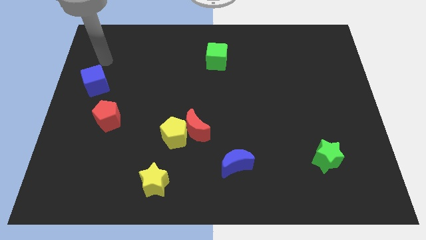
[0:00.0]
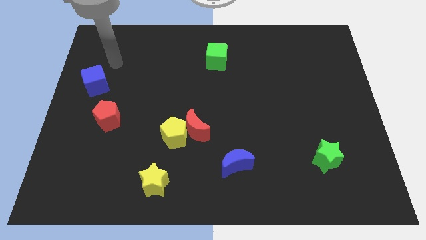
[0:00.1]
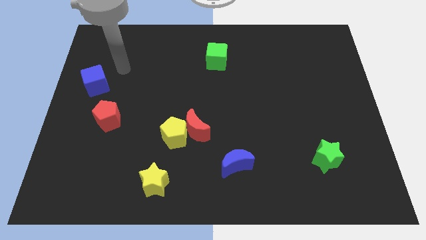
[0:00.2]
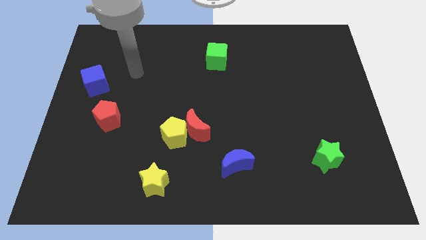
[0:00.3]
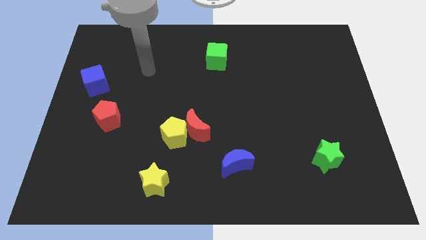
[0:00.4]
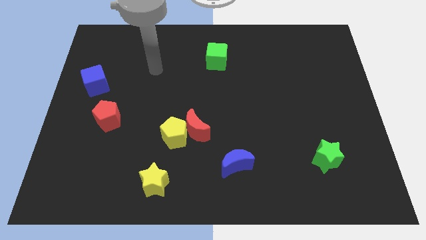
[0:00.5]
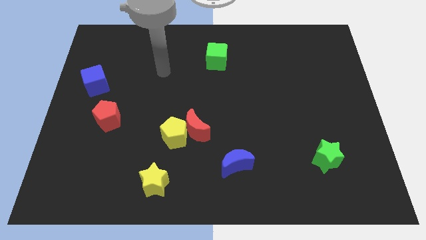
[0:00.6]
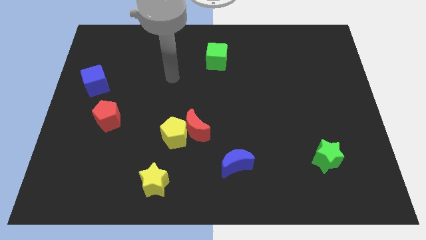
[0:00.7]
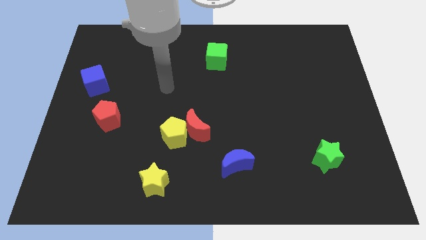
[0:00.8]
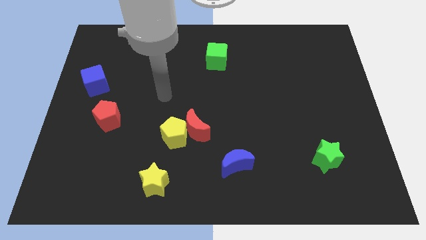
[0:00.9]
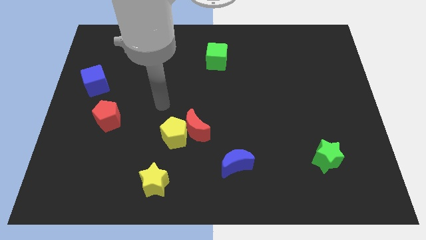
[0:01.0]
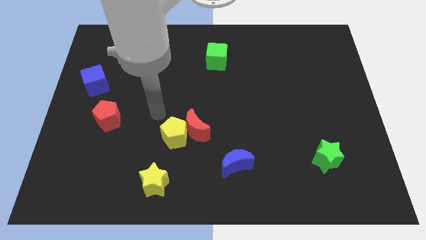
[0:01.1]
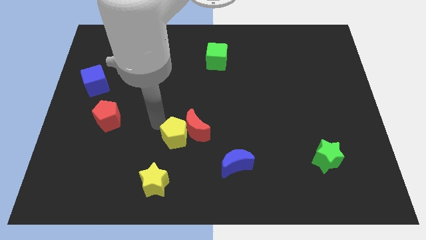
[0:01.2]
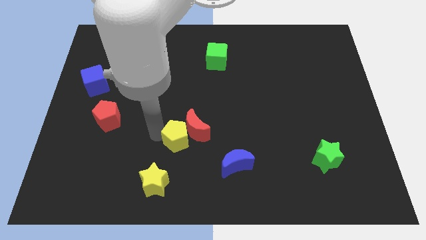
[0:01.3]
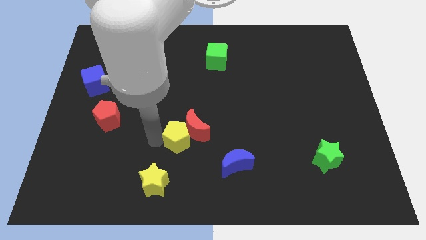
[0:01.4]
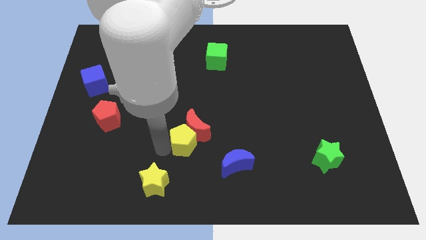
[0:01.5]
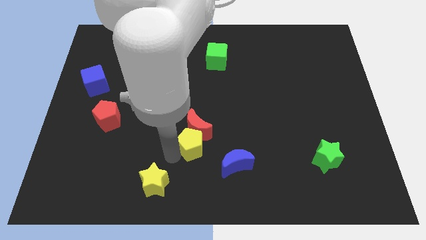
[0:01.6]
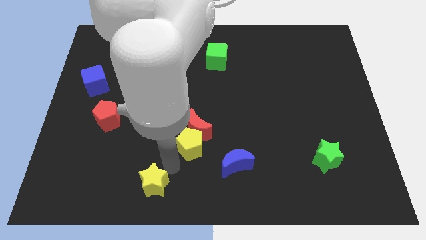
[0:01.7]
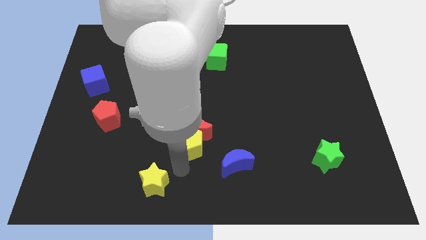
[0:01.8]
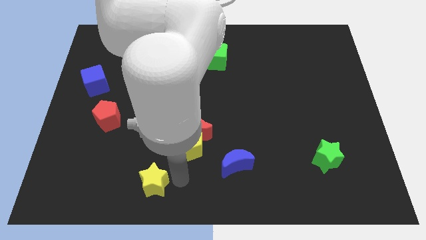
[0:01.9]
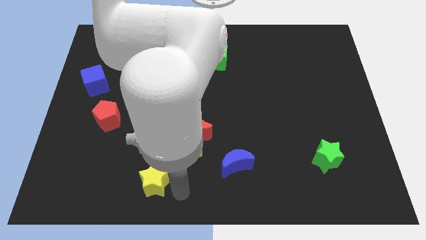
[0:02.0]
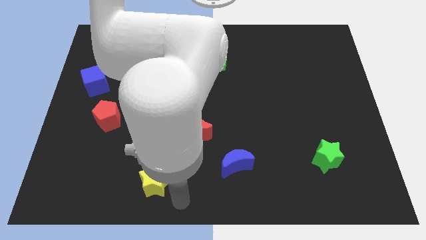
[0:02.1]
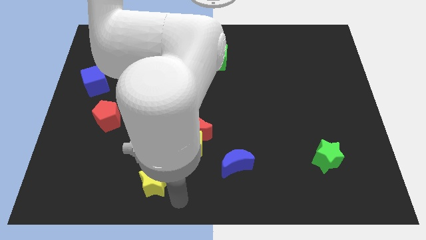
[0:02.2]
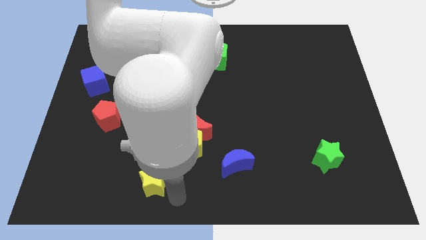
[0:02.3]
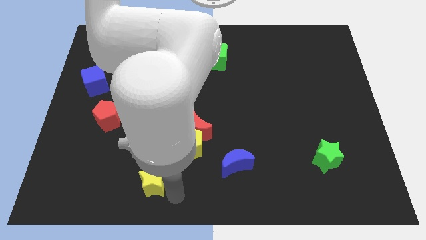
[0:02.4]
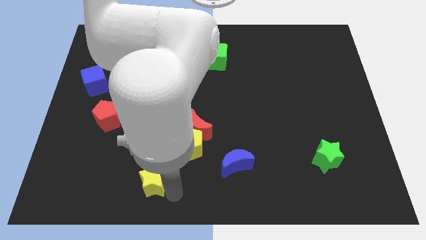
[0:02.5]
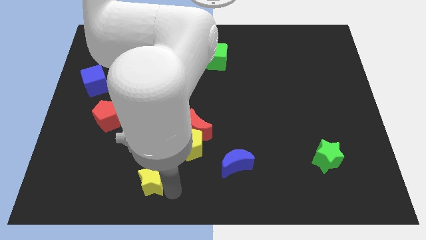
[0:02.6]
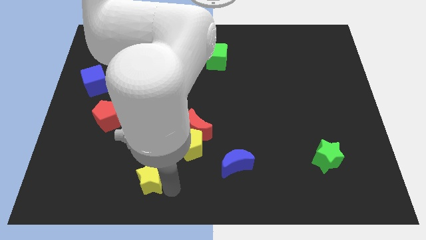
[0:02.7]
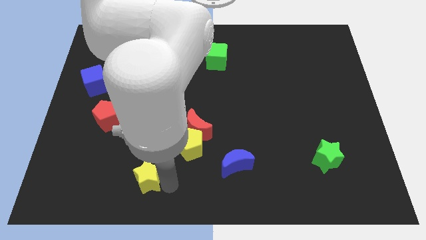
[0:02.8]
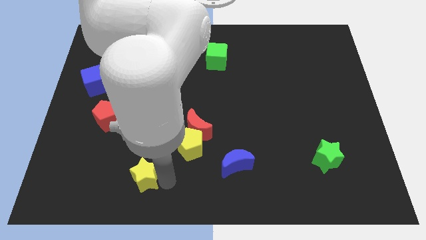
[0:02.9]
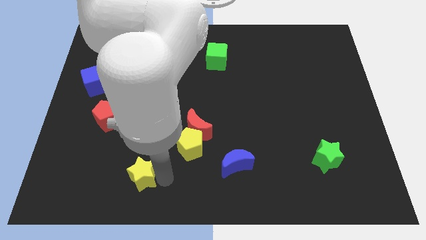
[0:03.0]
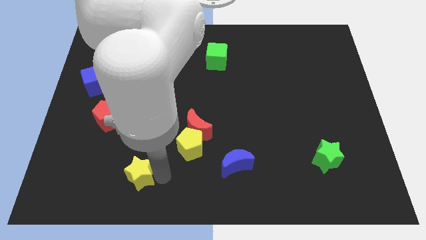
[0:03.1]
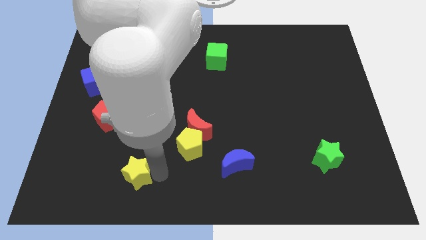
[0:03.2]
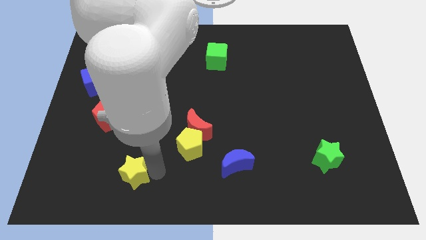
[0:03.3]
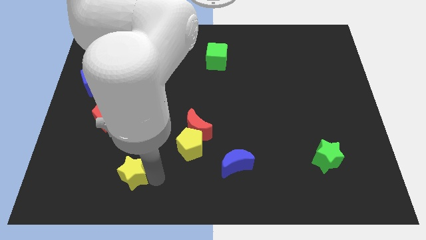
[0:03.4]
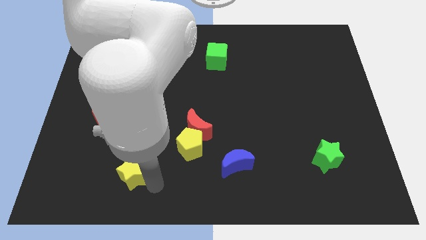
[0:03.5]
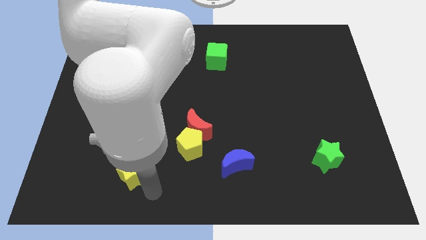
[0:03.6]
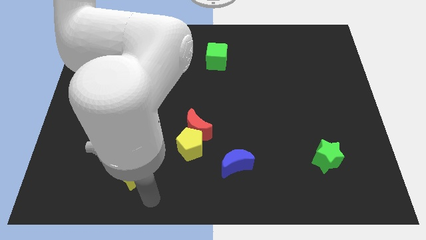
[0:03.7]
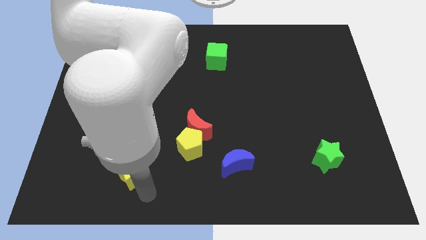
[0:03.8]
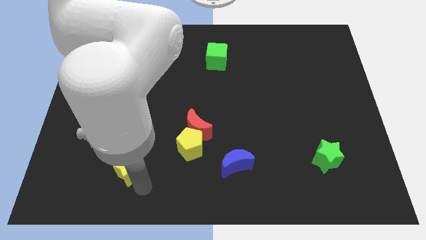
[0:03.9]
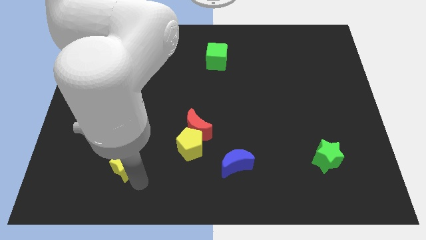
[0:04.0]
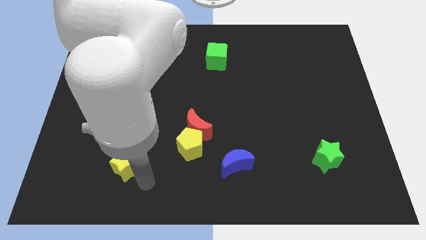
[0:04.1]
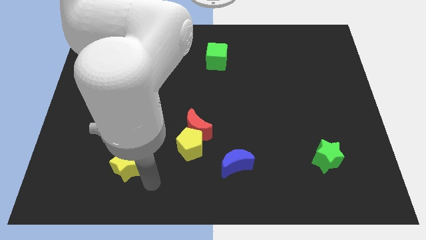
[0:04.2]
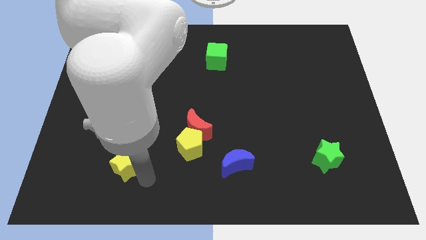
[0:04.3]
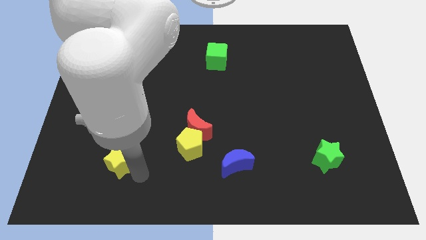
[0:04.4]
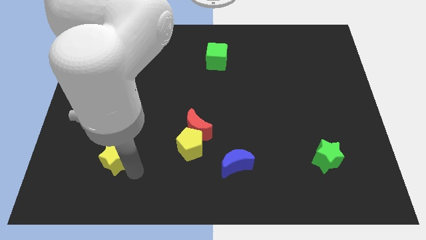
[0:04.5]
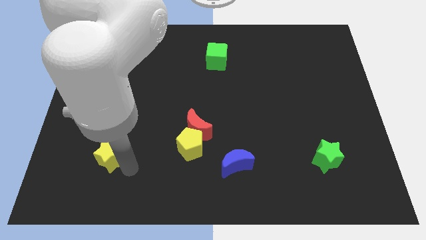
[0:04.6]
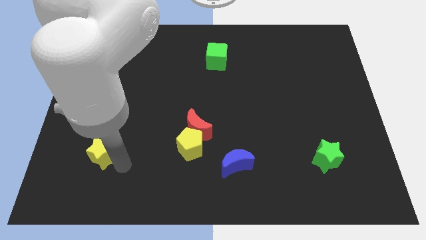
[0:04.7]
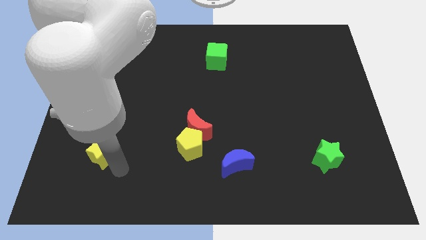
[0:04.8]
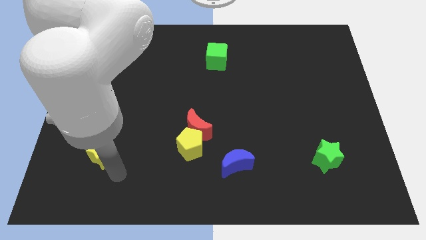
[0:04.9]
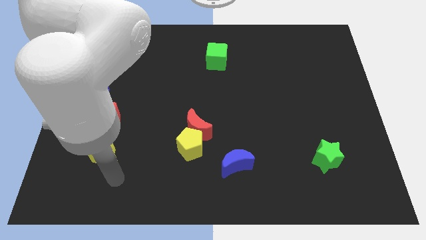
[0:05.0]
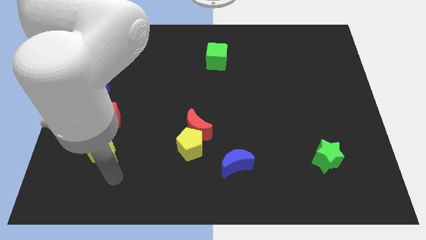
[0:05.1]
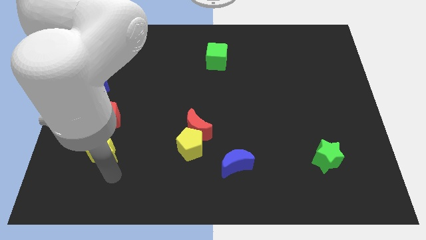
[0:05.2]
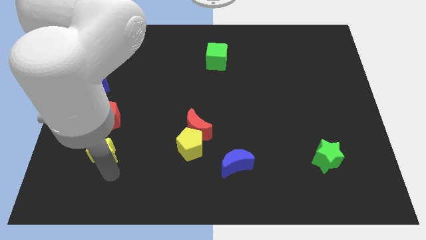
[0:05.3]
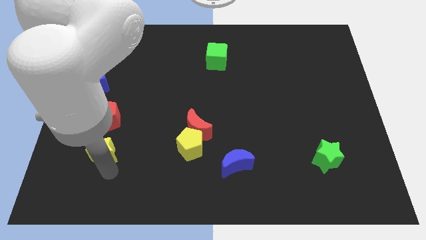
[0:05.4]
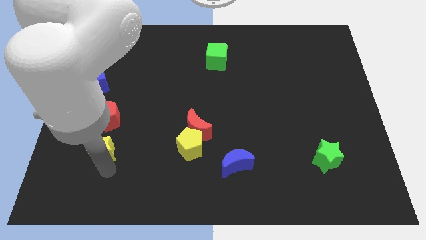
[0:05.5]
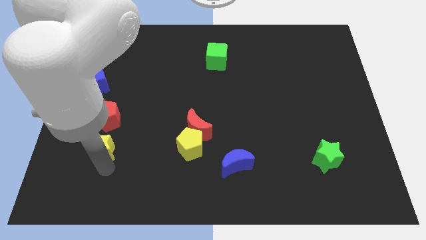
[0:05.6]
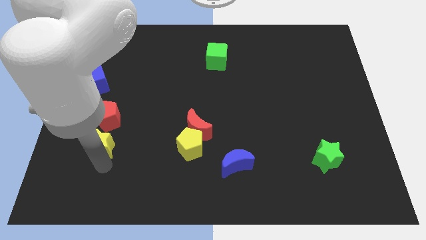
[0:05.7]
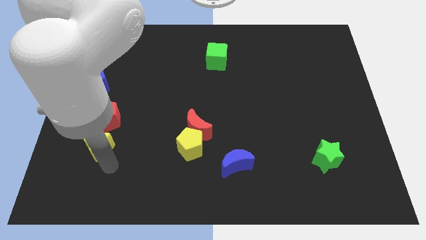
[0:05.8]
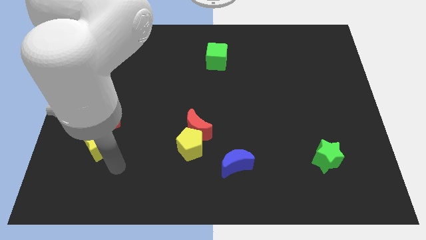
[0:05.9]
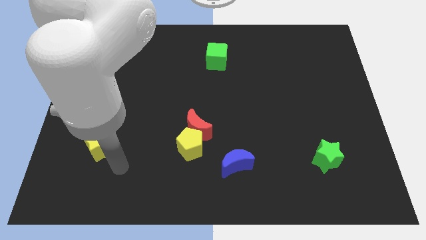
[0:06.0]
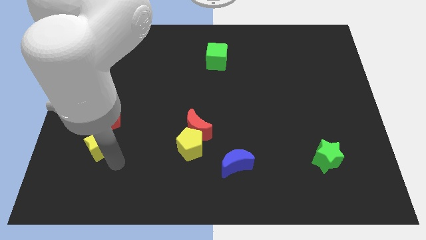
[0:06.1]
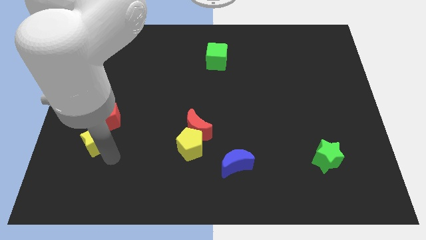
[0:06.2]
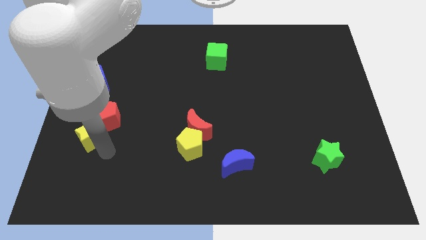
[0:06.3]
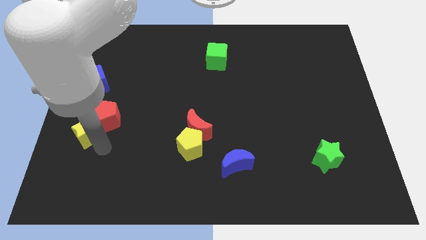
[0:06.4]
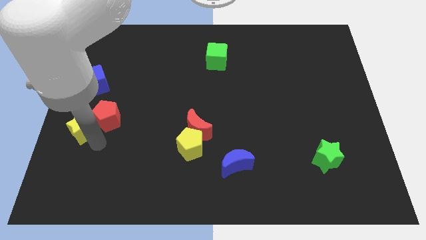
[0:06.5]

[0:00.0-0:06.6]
push the yellow star to the center left

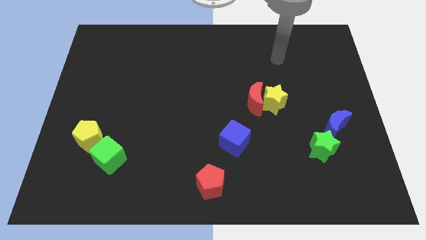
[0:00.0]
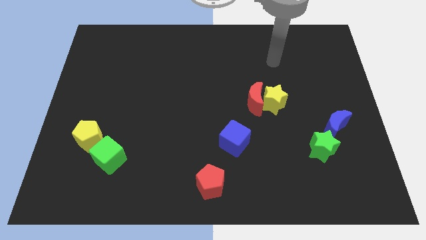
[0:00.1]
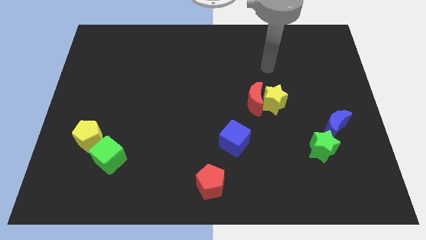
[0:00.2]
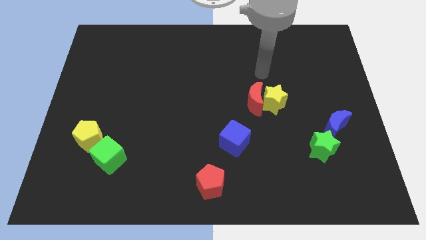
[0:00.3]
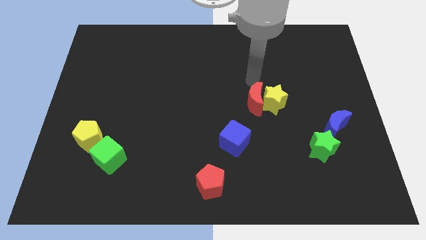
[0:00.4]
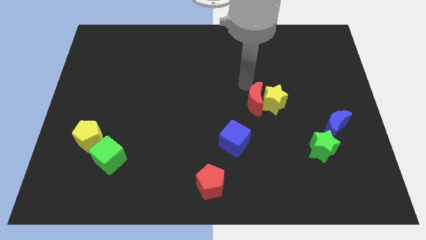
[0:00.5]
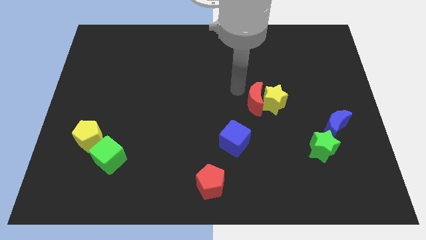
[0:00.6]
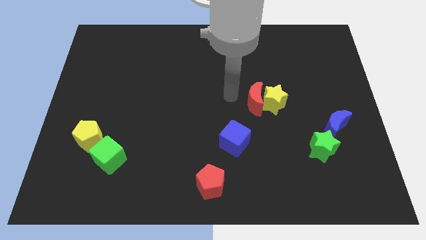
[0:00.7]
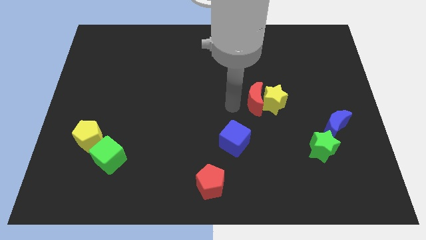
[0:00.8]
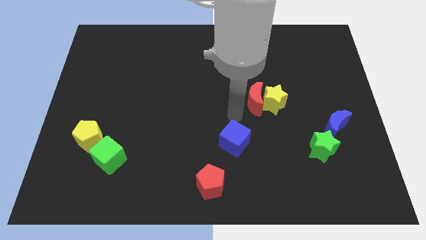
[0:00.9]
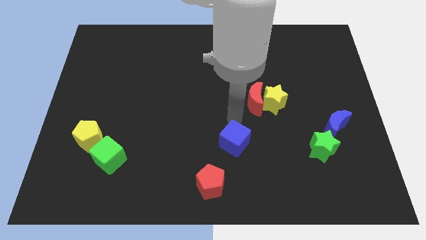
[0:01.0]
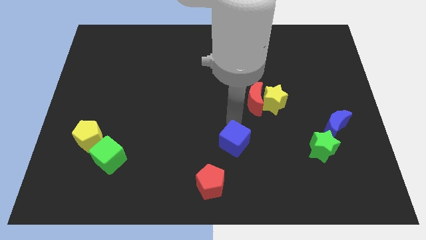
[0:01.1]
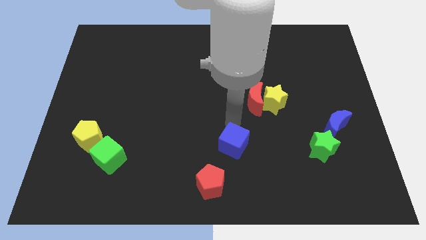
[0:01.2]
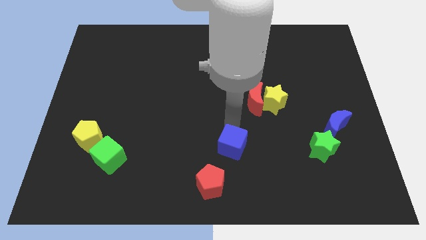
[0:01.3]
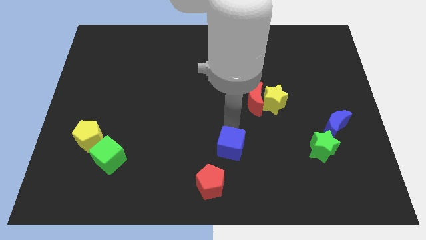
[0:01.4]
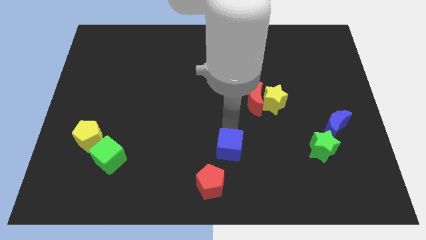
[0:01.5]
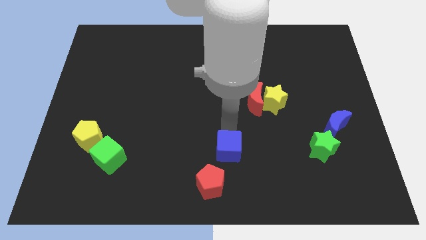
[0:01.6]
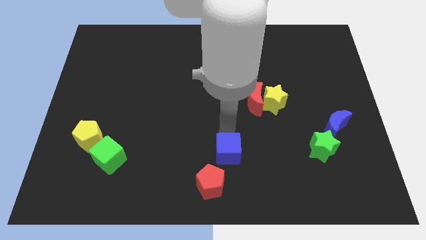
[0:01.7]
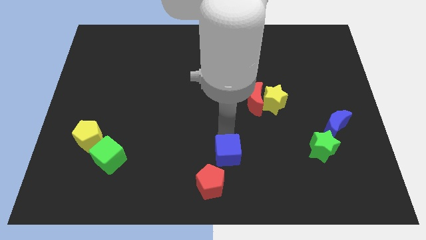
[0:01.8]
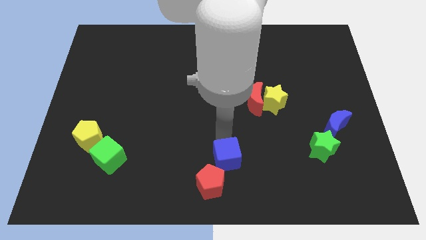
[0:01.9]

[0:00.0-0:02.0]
put the blue cube to the bottom
